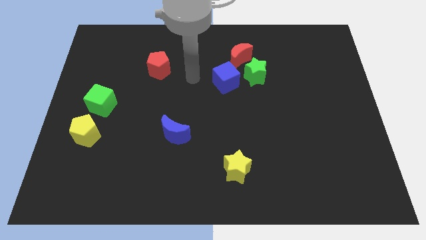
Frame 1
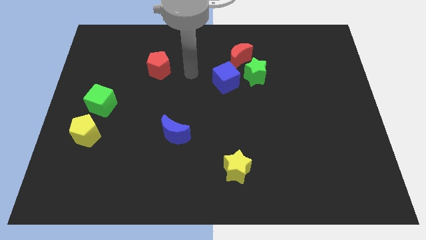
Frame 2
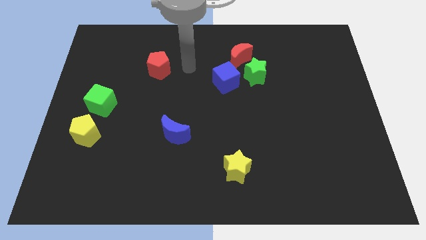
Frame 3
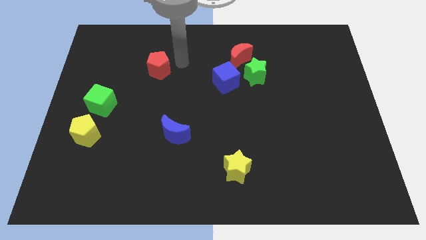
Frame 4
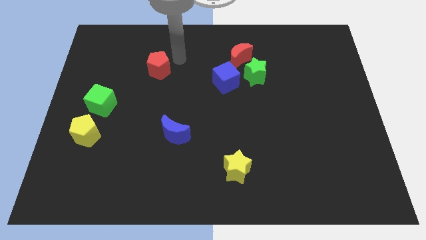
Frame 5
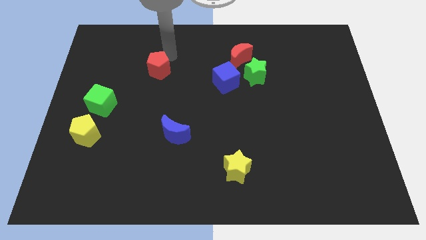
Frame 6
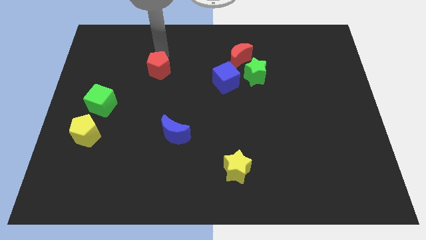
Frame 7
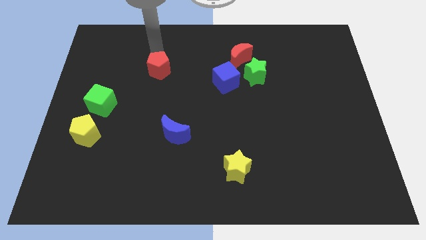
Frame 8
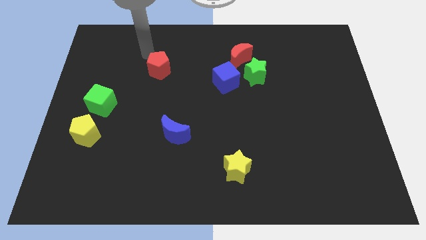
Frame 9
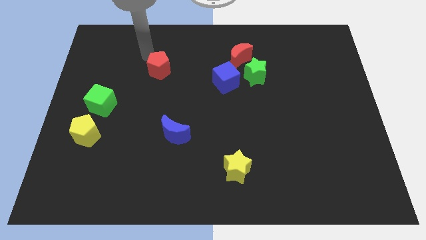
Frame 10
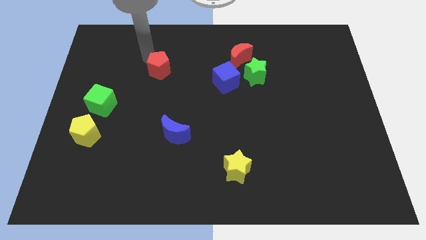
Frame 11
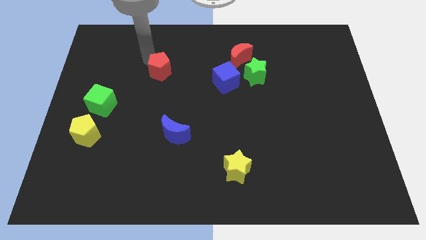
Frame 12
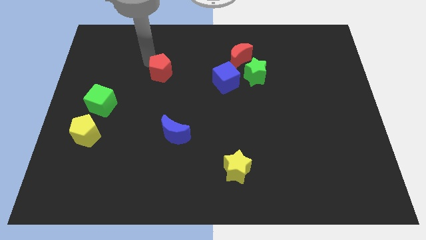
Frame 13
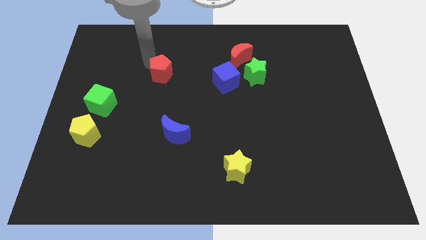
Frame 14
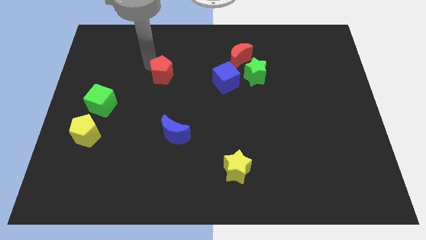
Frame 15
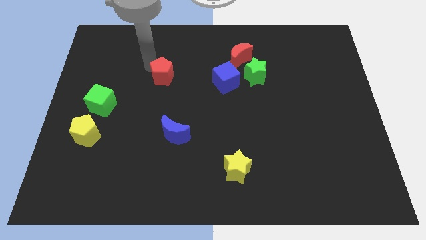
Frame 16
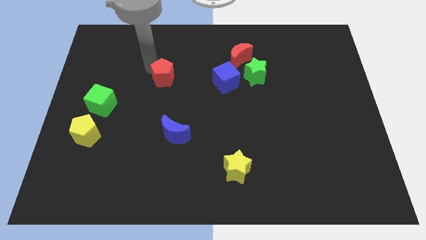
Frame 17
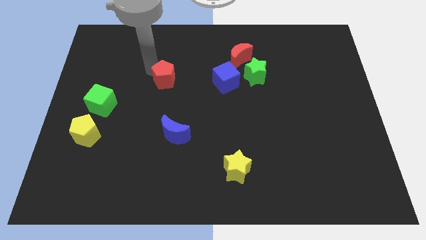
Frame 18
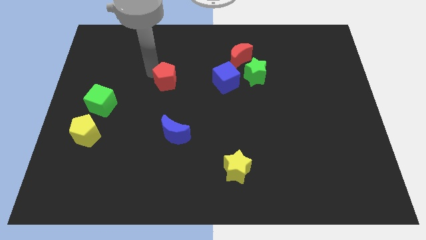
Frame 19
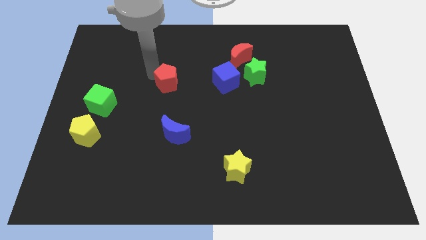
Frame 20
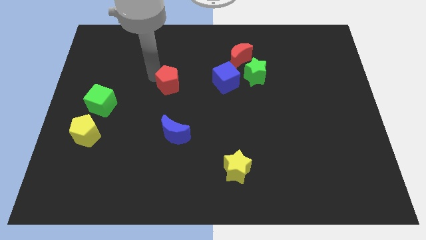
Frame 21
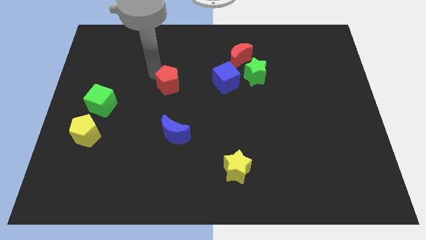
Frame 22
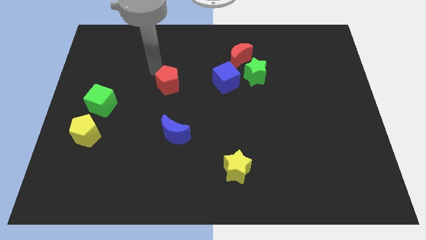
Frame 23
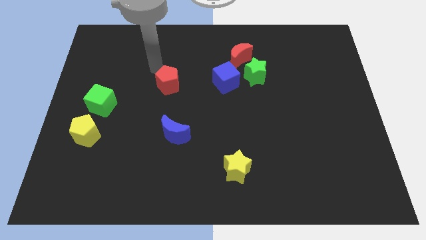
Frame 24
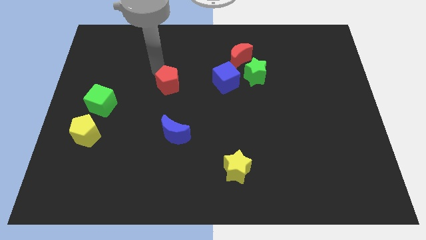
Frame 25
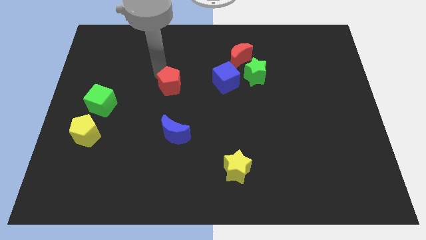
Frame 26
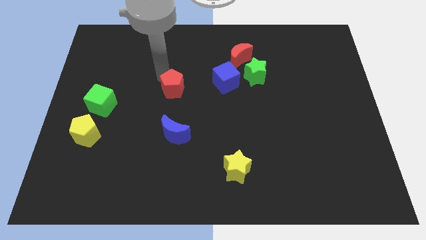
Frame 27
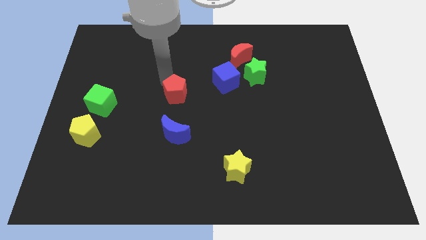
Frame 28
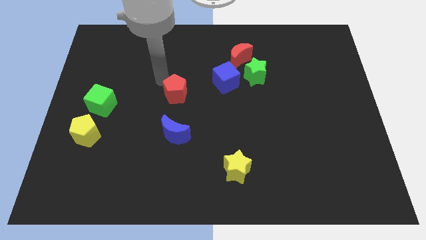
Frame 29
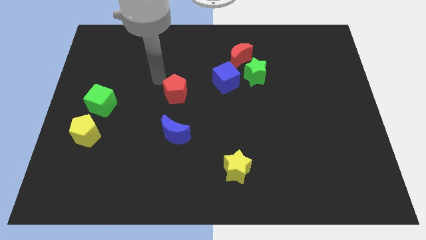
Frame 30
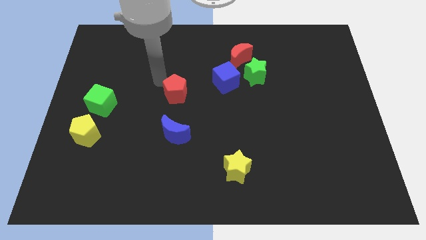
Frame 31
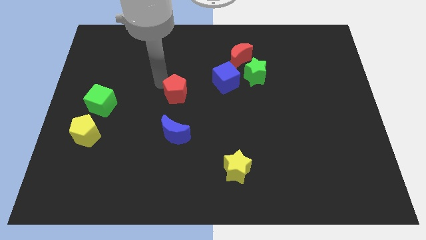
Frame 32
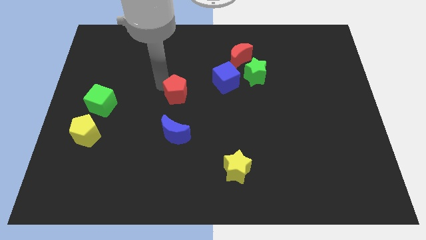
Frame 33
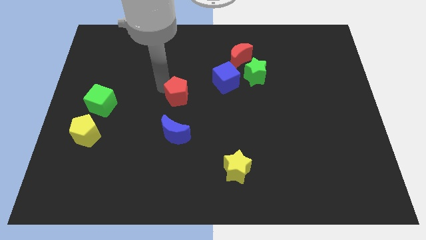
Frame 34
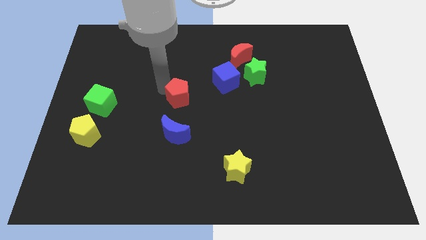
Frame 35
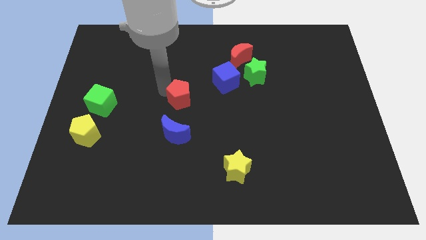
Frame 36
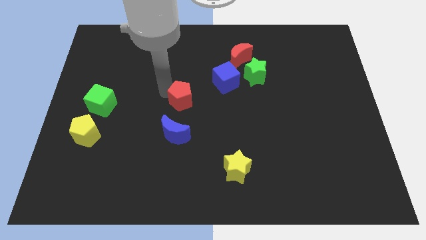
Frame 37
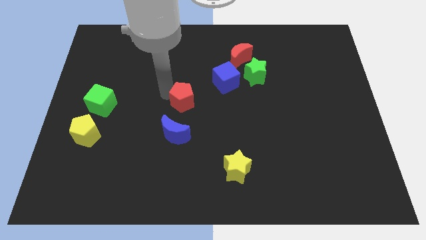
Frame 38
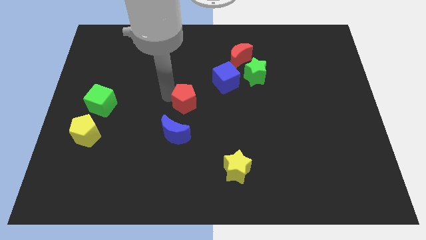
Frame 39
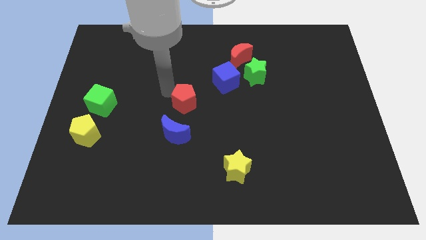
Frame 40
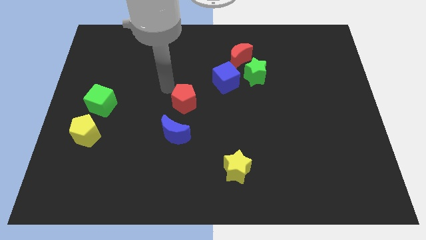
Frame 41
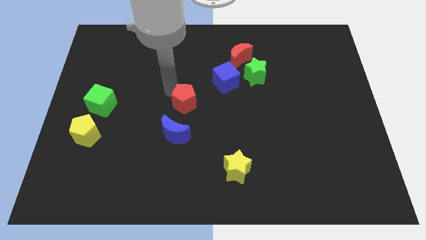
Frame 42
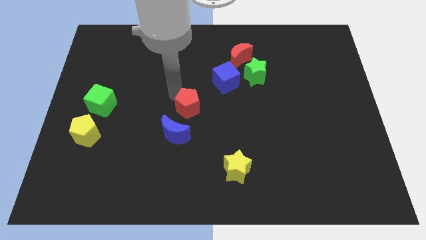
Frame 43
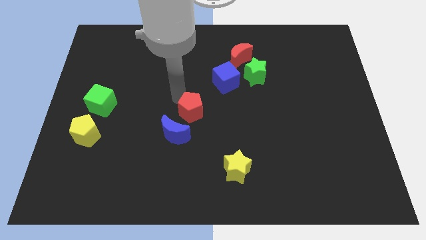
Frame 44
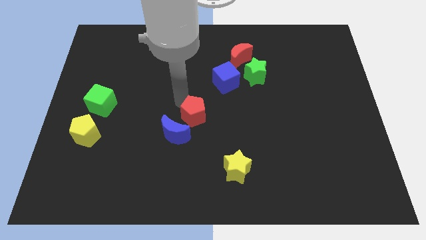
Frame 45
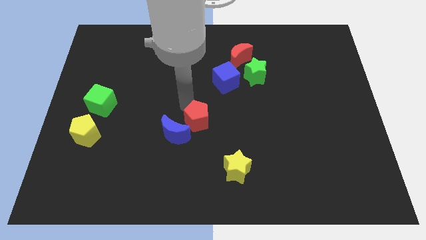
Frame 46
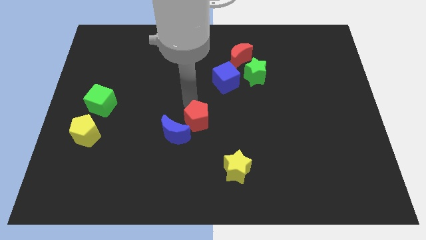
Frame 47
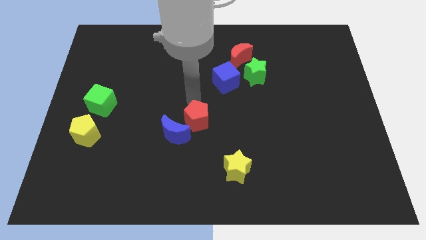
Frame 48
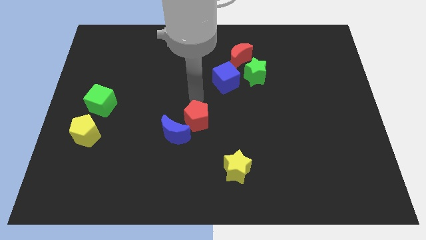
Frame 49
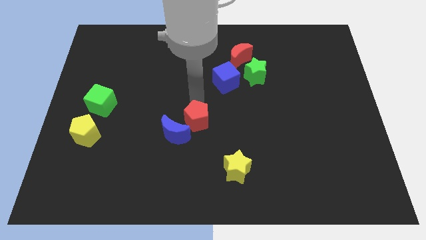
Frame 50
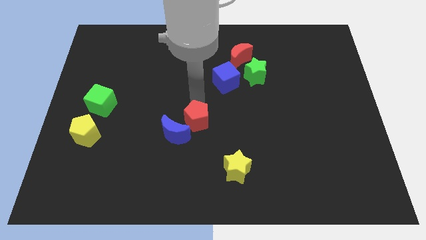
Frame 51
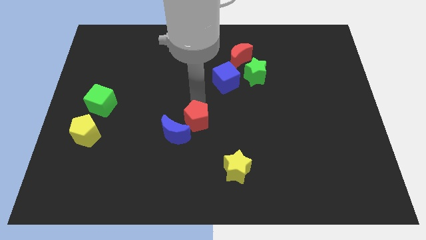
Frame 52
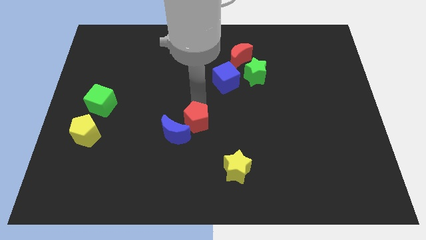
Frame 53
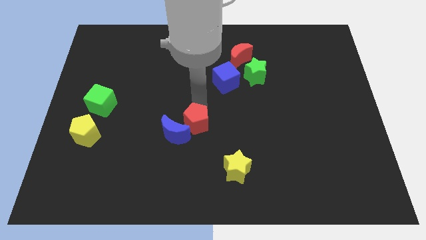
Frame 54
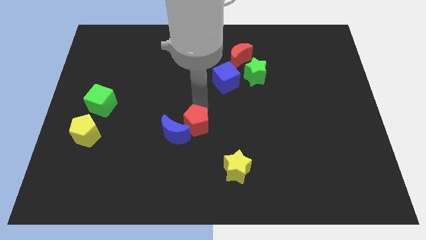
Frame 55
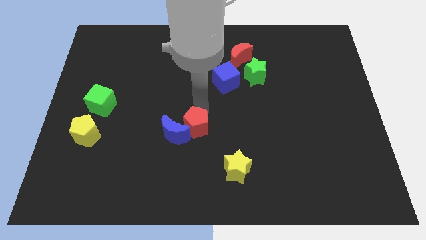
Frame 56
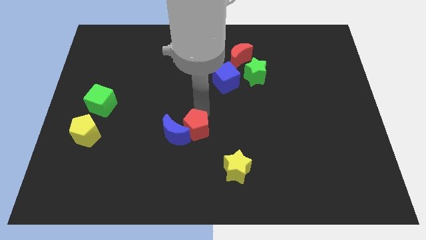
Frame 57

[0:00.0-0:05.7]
slide the red pentagon diagonally down and to the right of the blue moon

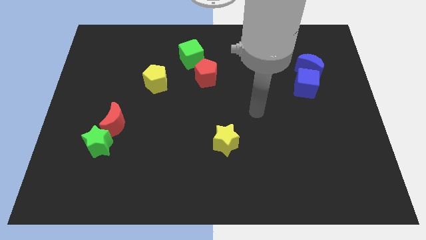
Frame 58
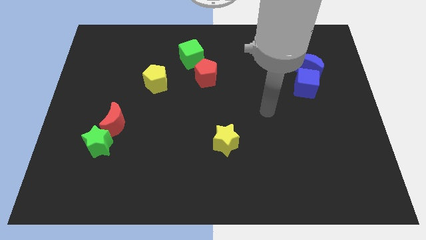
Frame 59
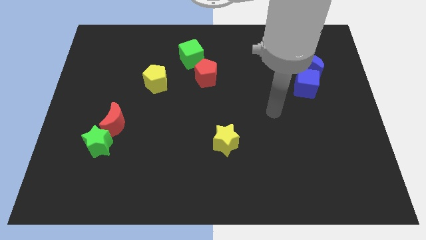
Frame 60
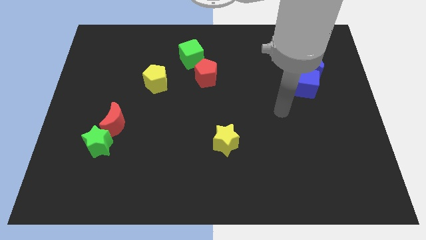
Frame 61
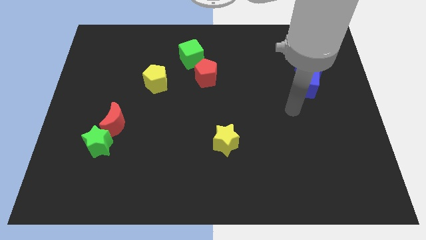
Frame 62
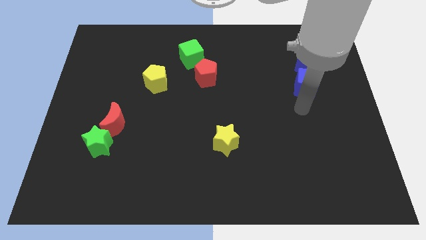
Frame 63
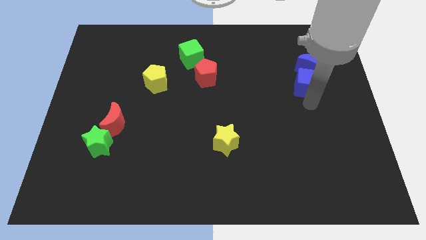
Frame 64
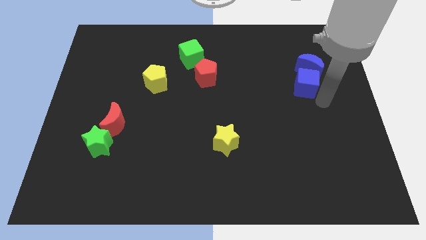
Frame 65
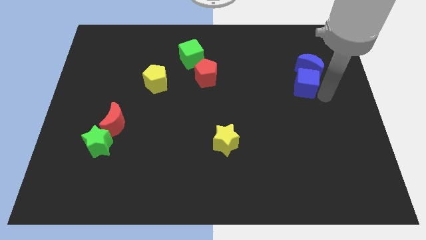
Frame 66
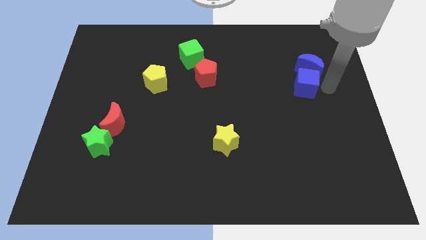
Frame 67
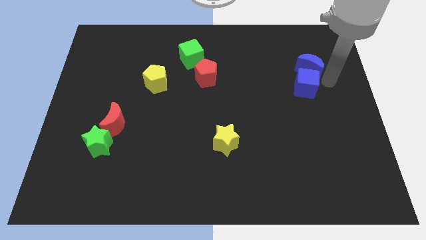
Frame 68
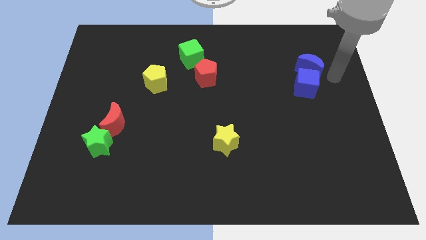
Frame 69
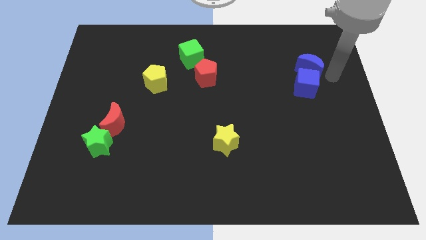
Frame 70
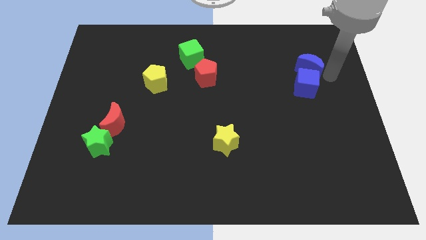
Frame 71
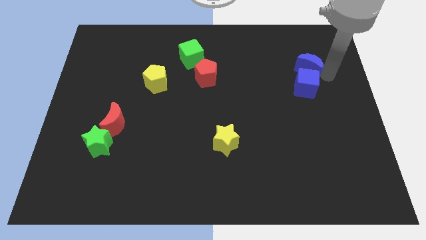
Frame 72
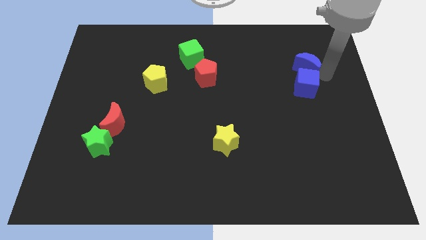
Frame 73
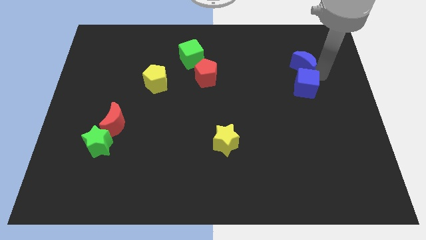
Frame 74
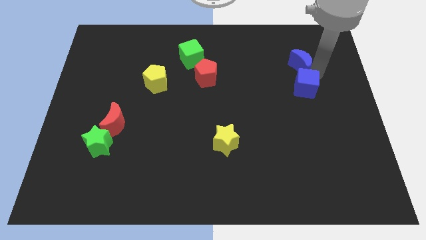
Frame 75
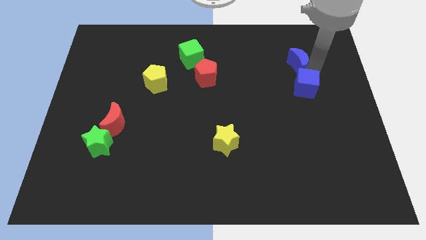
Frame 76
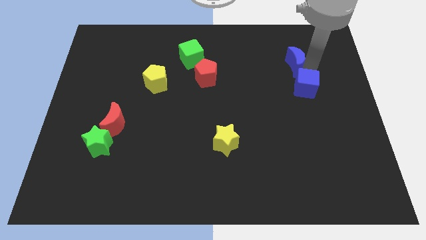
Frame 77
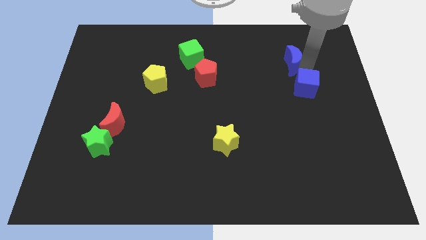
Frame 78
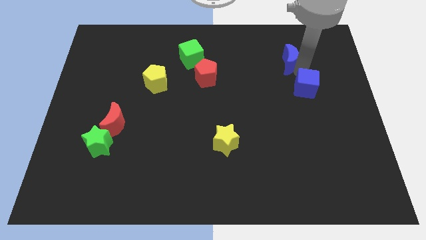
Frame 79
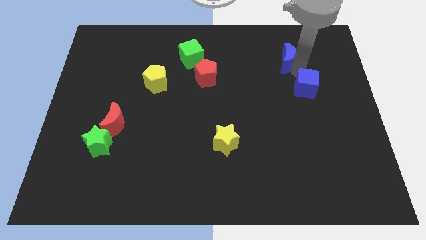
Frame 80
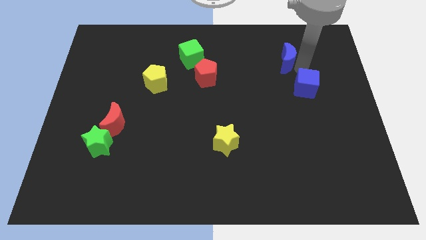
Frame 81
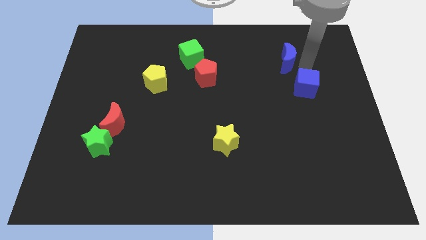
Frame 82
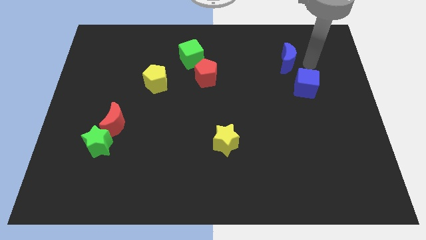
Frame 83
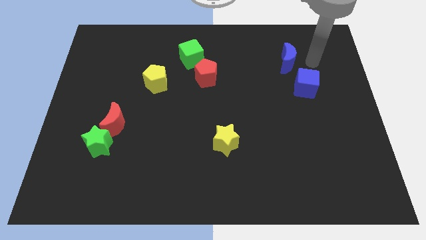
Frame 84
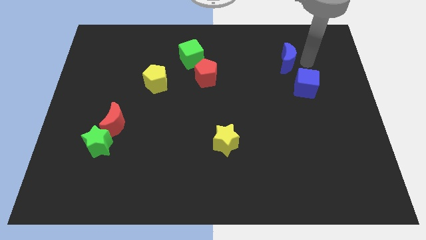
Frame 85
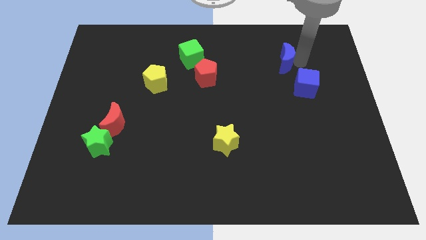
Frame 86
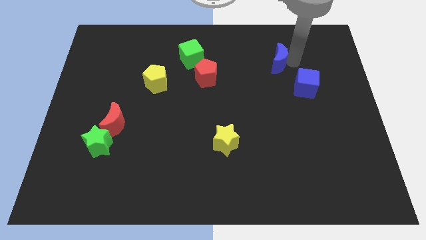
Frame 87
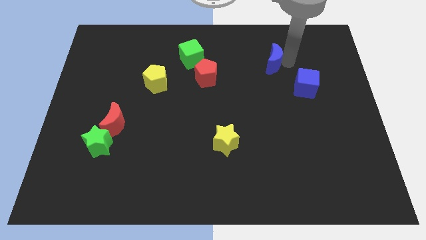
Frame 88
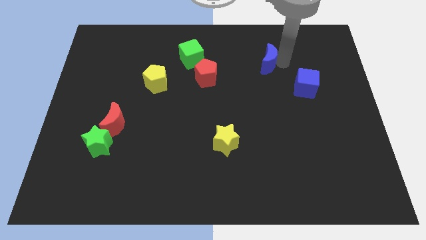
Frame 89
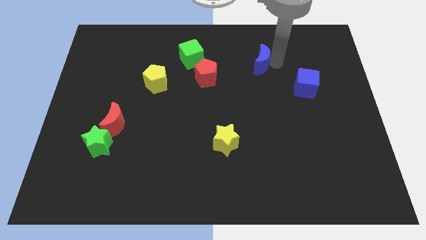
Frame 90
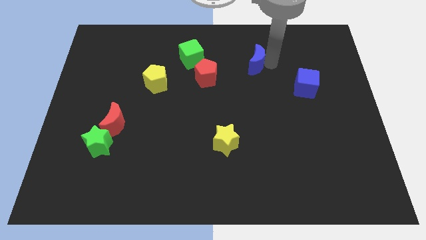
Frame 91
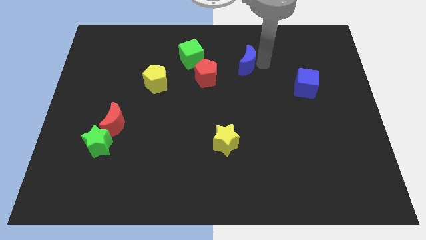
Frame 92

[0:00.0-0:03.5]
put the blue moon to the top right side of the red pentagon
